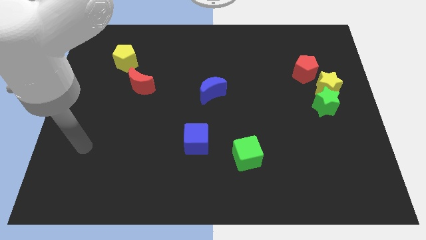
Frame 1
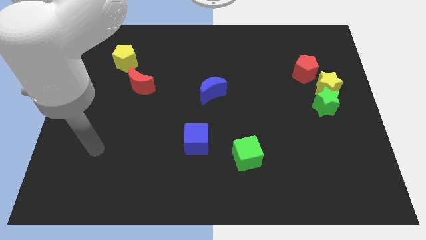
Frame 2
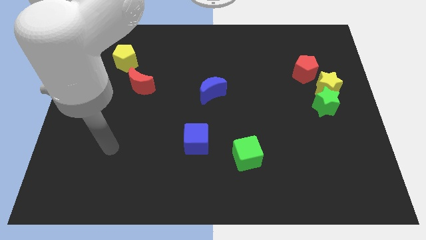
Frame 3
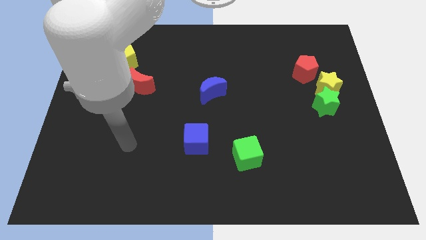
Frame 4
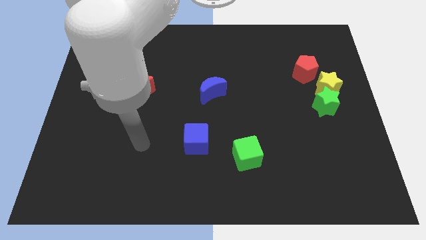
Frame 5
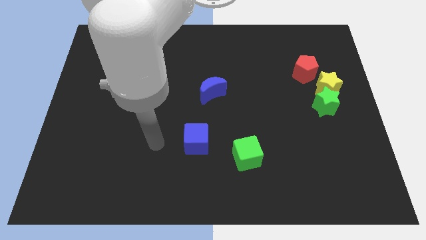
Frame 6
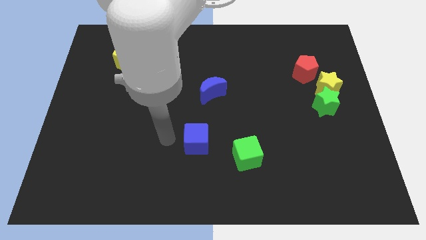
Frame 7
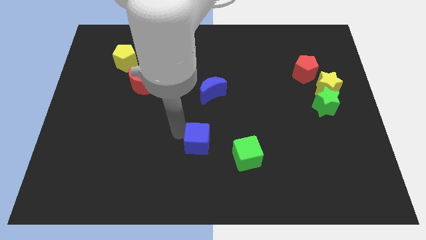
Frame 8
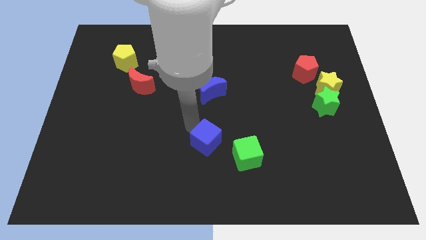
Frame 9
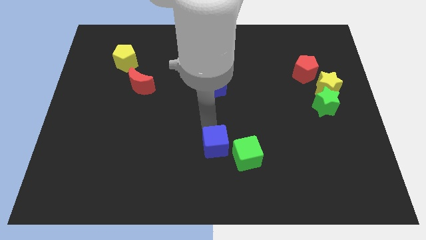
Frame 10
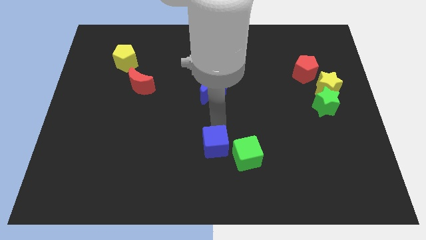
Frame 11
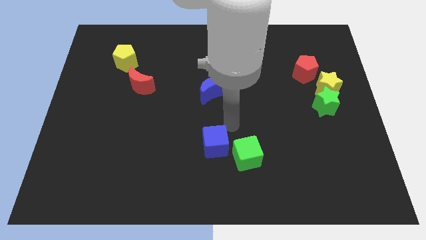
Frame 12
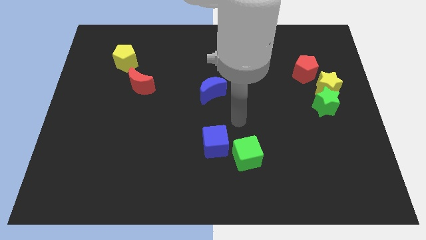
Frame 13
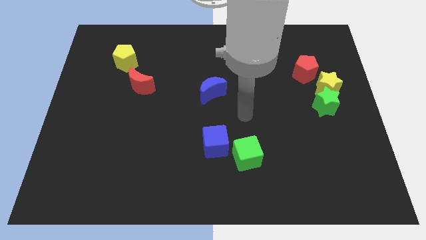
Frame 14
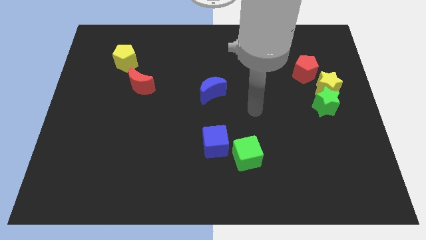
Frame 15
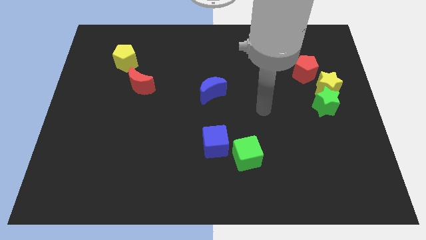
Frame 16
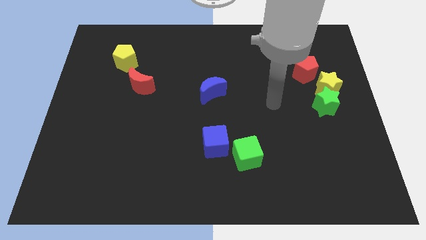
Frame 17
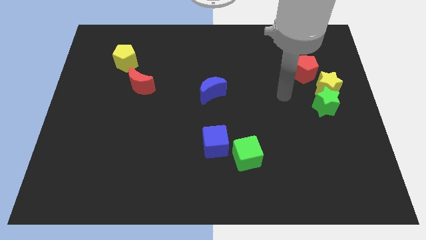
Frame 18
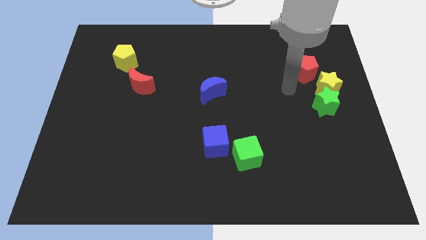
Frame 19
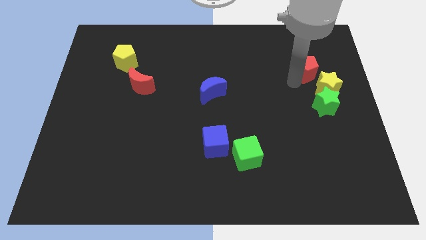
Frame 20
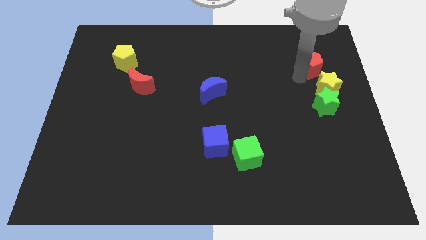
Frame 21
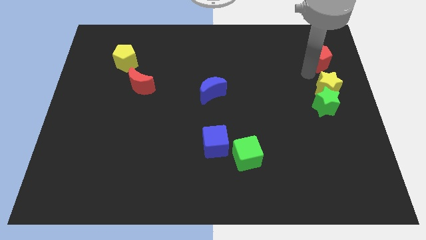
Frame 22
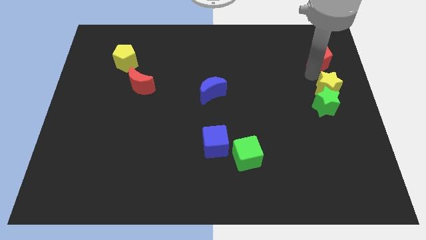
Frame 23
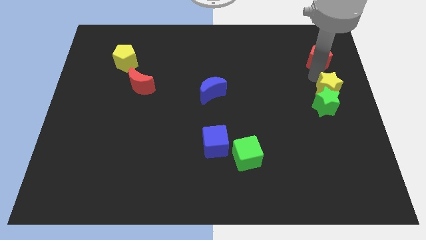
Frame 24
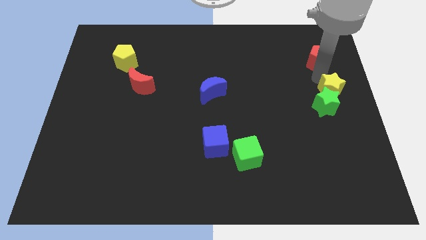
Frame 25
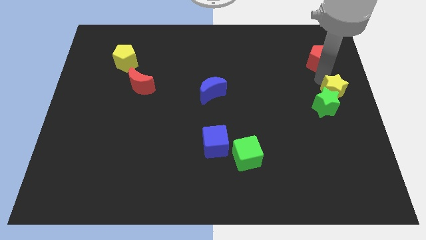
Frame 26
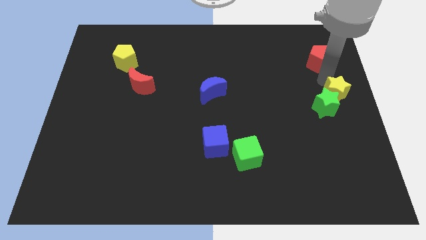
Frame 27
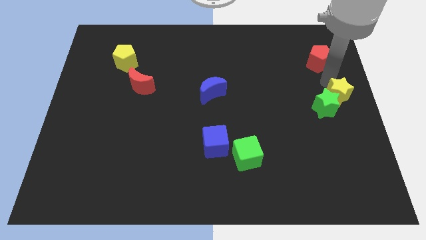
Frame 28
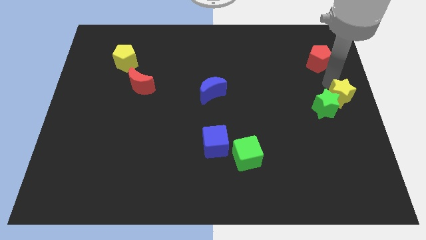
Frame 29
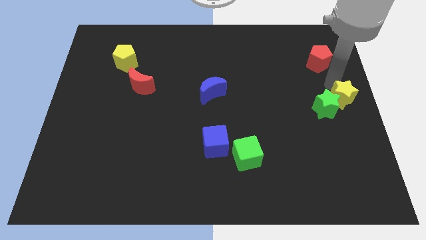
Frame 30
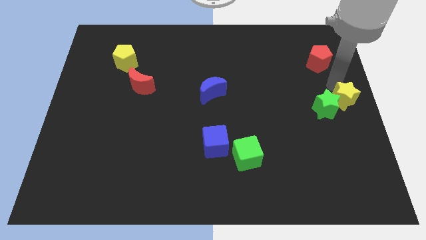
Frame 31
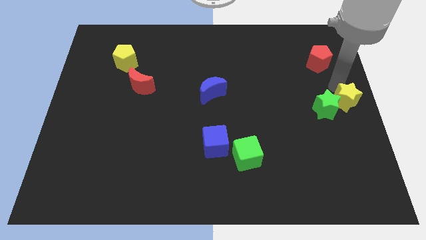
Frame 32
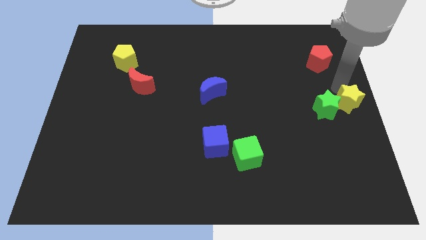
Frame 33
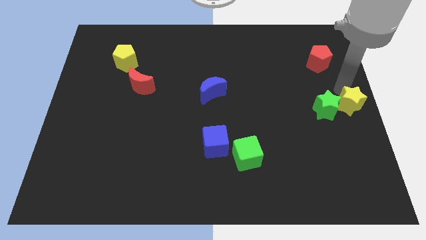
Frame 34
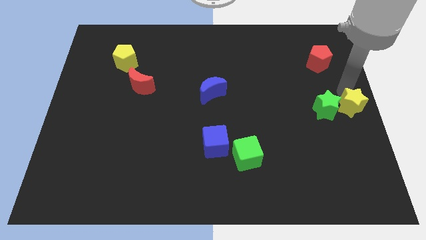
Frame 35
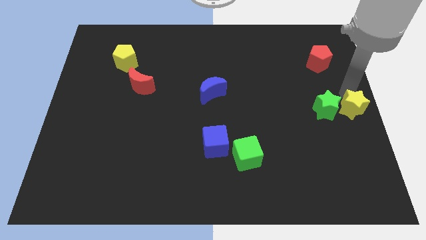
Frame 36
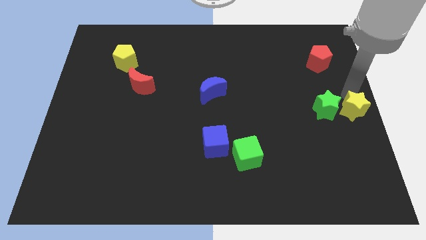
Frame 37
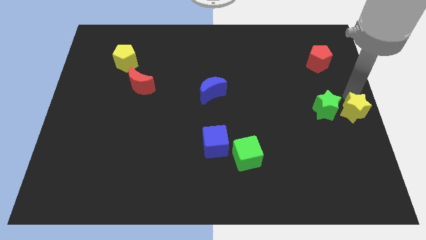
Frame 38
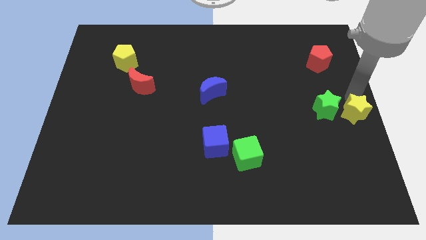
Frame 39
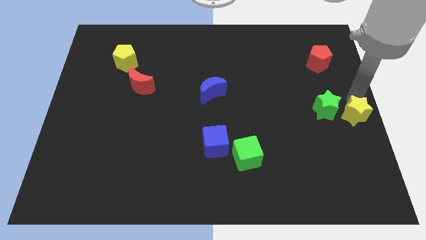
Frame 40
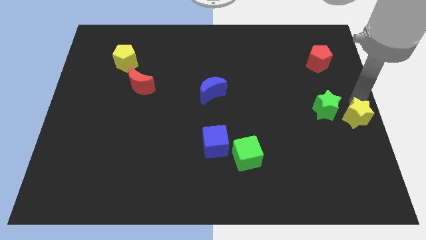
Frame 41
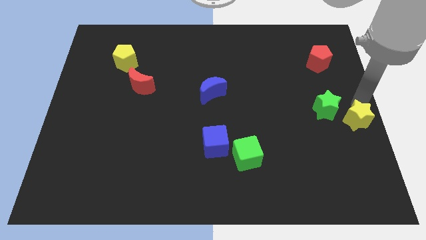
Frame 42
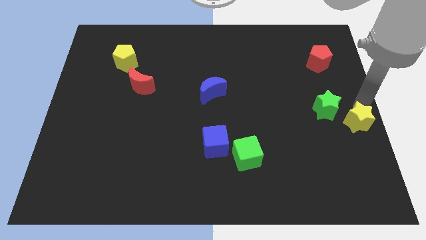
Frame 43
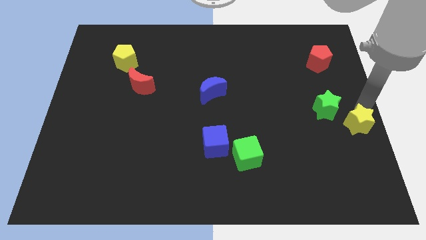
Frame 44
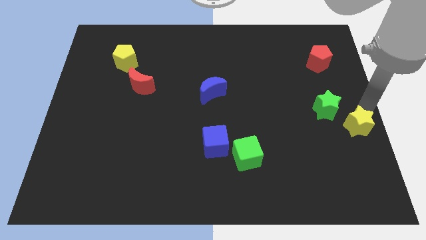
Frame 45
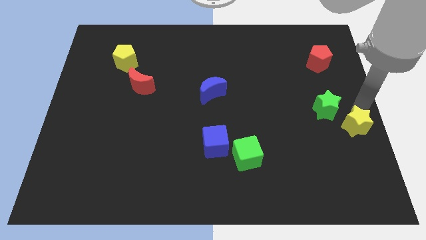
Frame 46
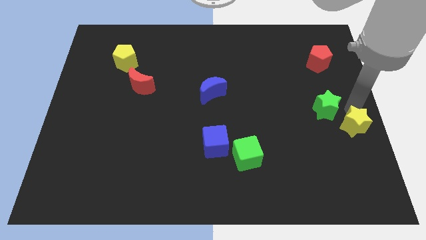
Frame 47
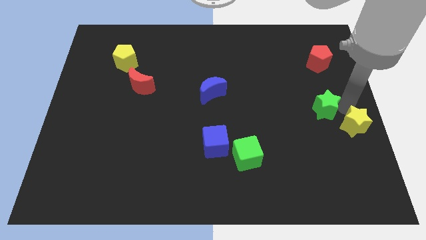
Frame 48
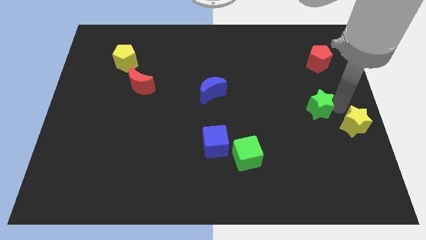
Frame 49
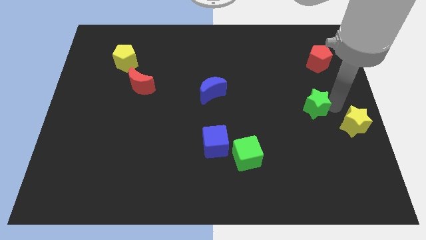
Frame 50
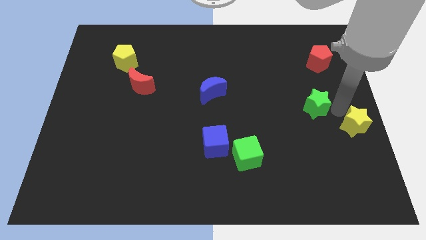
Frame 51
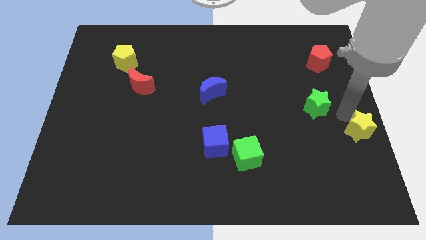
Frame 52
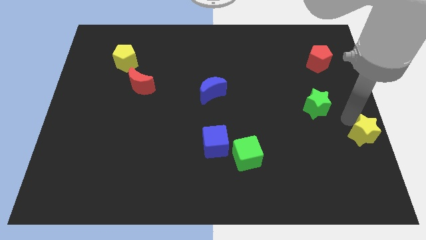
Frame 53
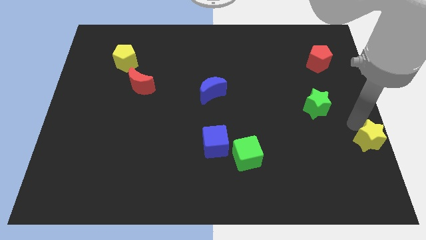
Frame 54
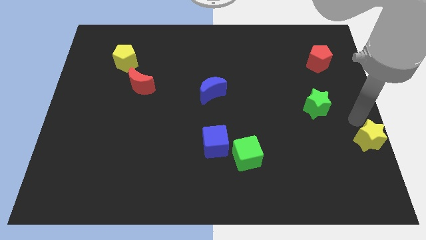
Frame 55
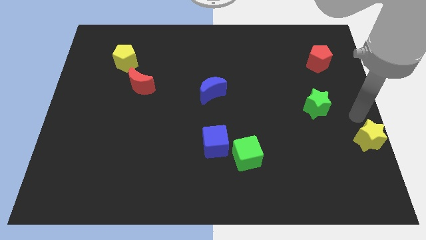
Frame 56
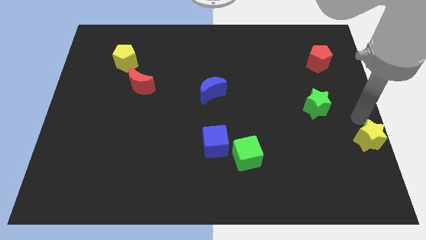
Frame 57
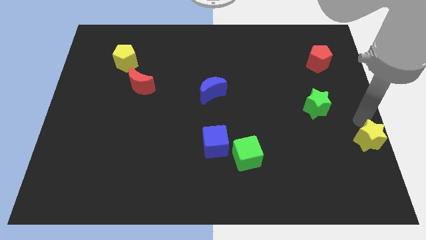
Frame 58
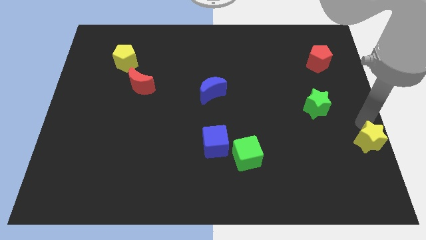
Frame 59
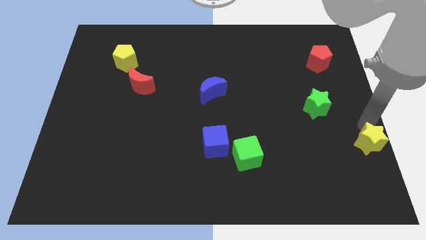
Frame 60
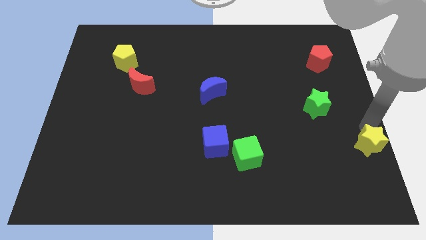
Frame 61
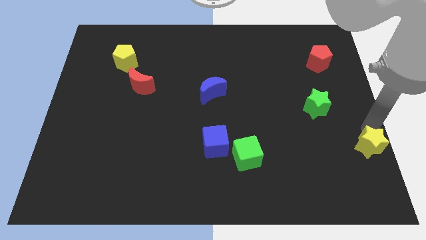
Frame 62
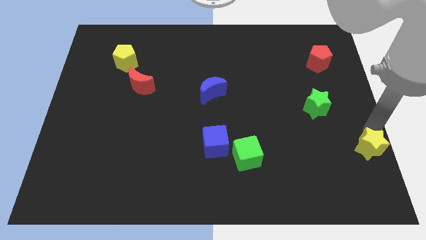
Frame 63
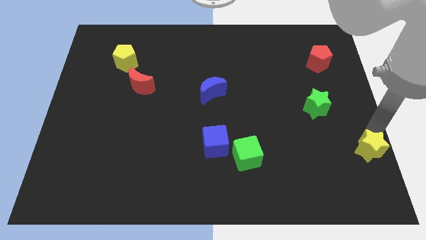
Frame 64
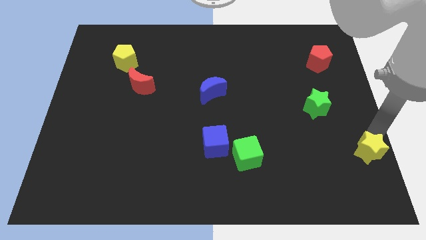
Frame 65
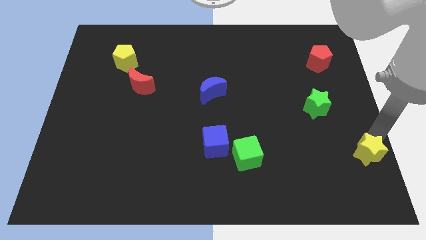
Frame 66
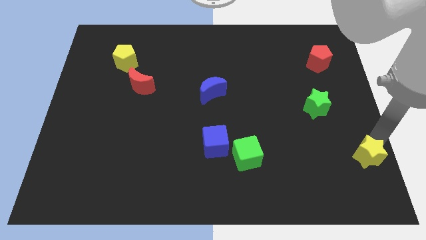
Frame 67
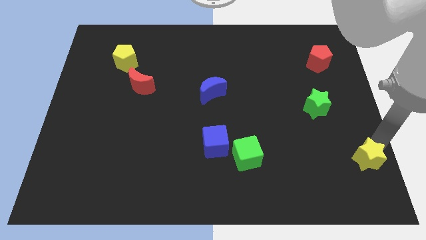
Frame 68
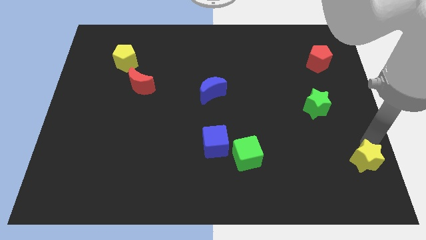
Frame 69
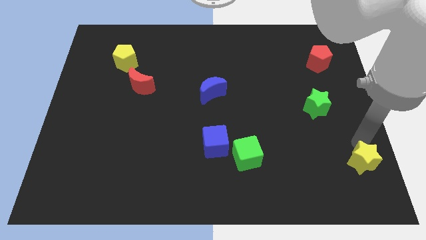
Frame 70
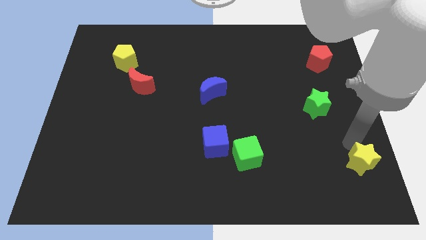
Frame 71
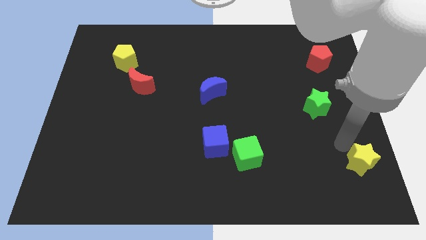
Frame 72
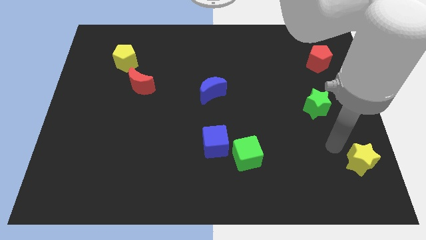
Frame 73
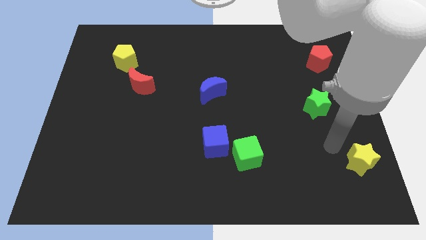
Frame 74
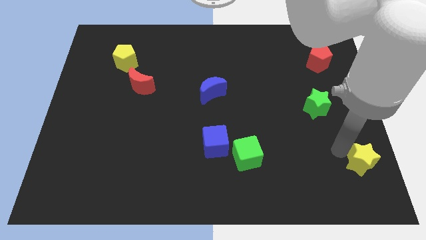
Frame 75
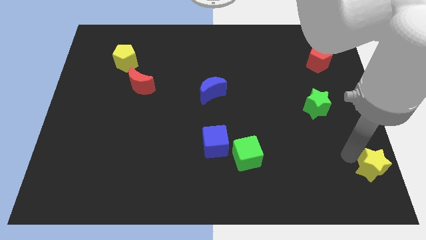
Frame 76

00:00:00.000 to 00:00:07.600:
push the yellow star to the bottom right
